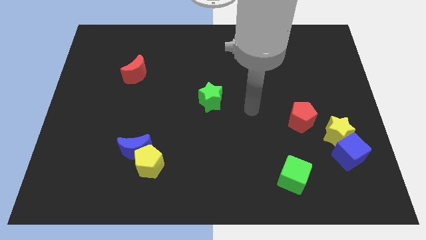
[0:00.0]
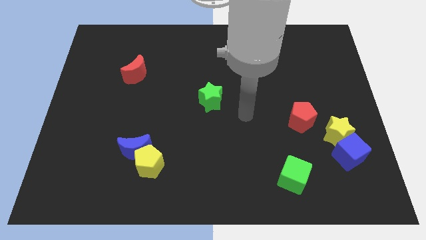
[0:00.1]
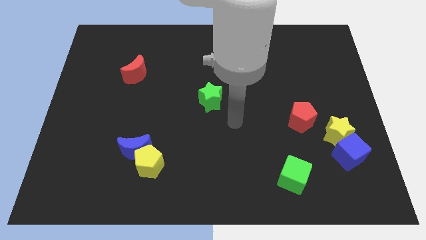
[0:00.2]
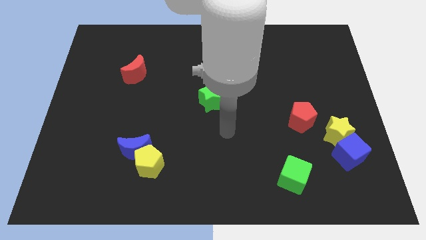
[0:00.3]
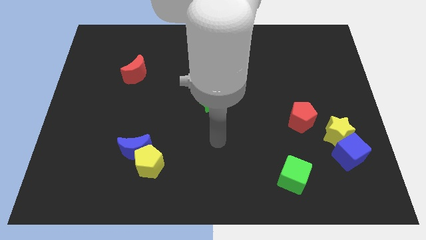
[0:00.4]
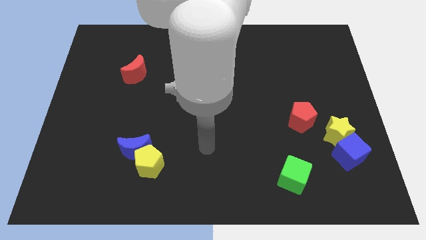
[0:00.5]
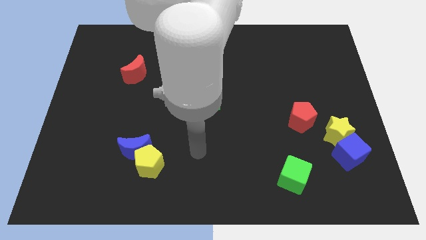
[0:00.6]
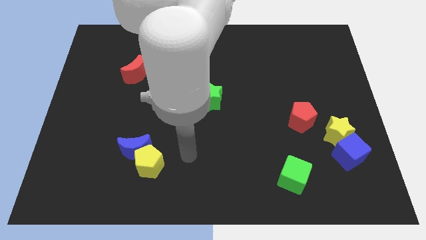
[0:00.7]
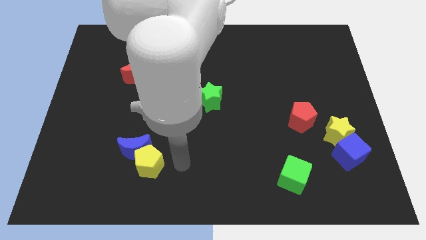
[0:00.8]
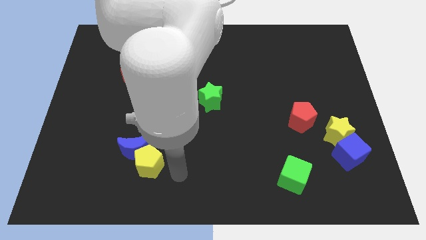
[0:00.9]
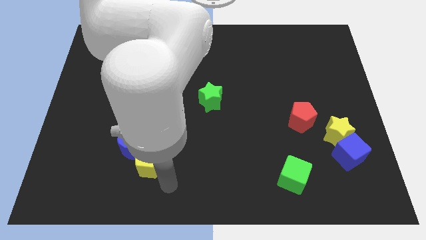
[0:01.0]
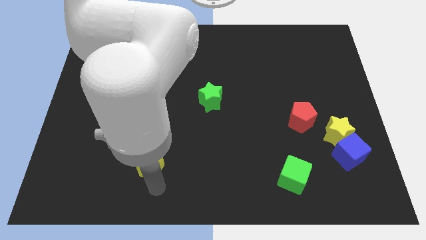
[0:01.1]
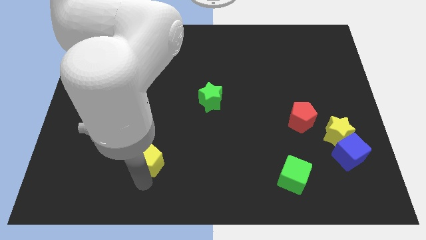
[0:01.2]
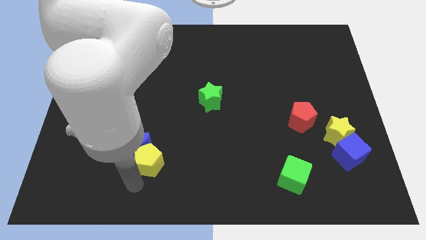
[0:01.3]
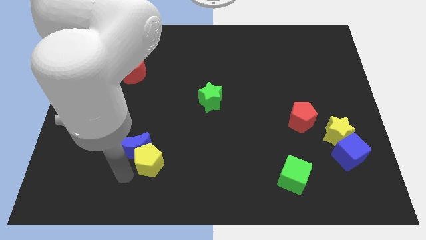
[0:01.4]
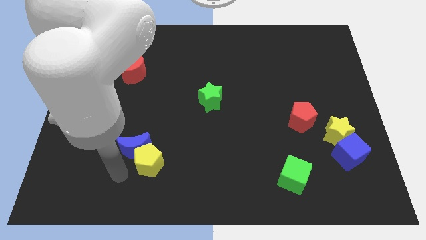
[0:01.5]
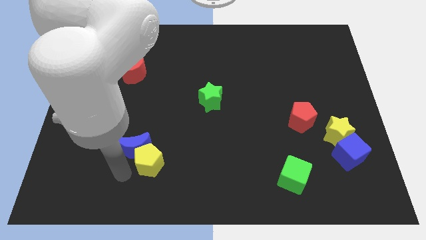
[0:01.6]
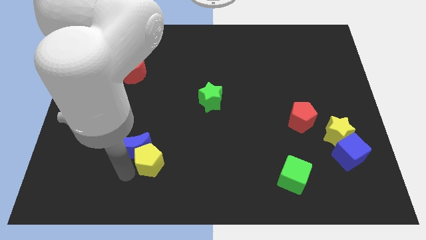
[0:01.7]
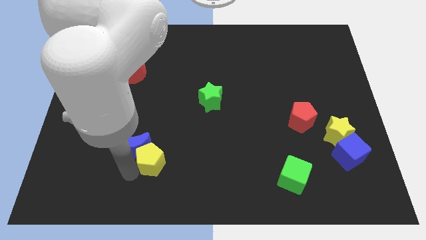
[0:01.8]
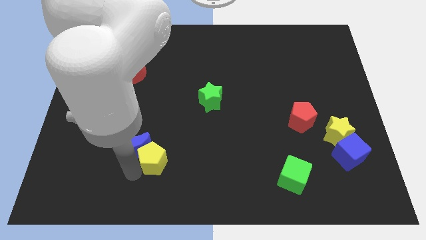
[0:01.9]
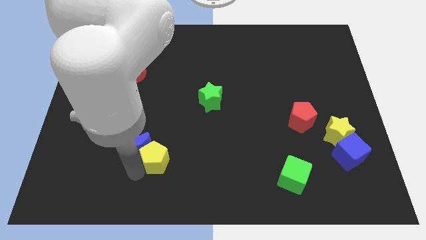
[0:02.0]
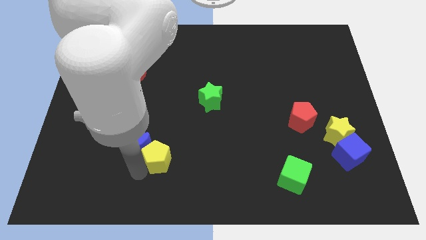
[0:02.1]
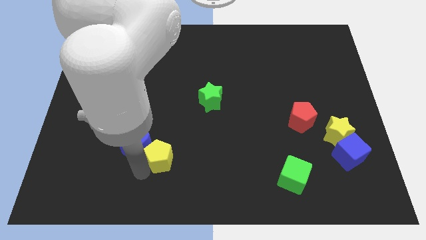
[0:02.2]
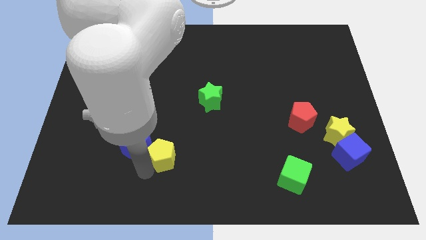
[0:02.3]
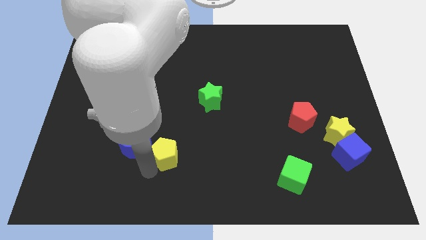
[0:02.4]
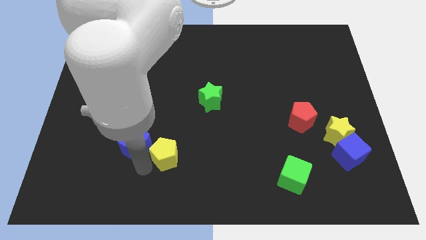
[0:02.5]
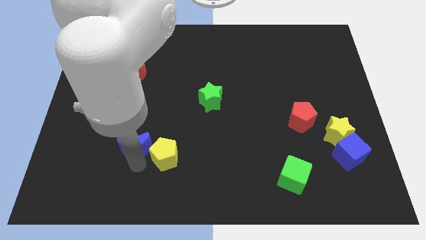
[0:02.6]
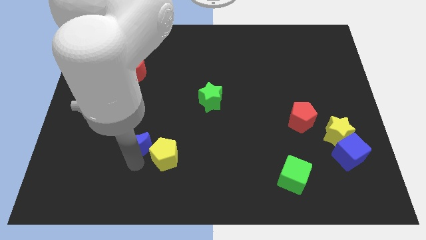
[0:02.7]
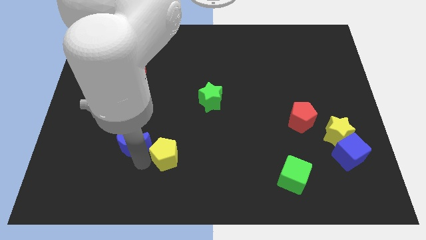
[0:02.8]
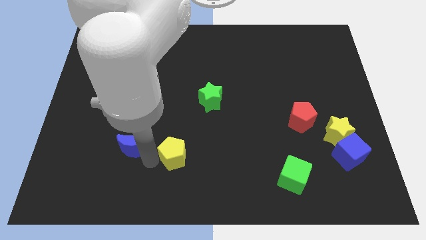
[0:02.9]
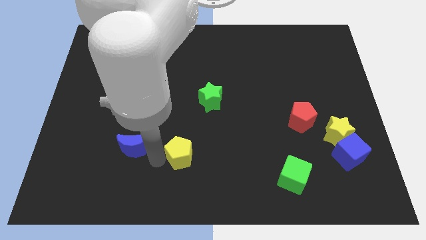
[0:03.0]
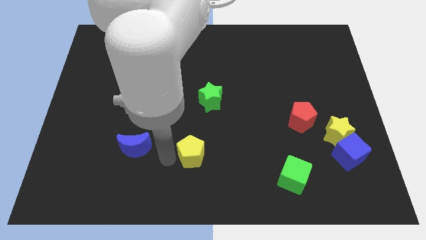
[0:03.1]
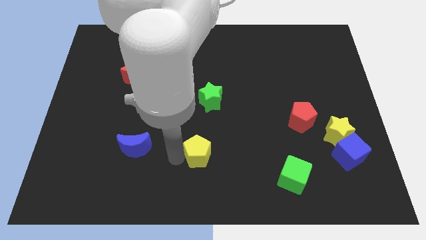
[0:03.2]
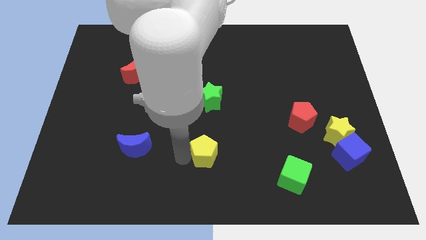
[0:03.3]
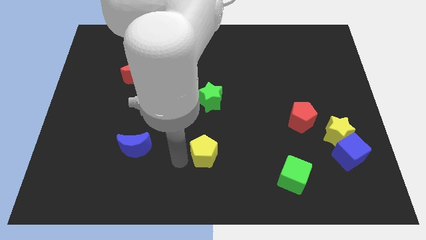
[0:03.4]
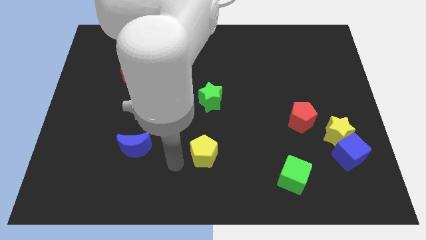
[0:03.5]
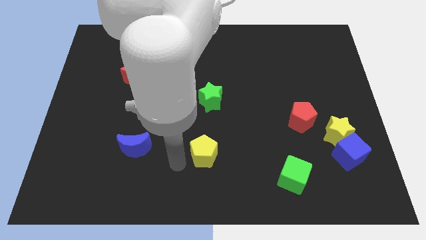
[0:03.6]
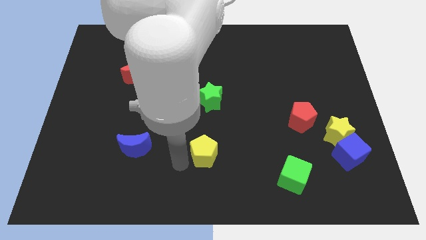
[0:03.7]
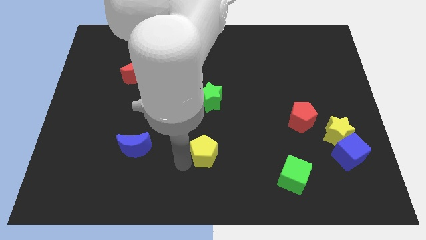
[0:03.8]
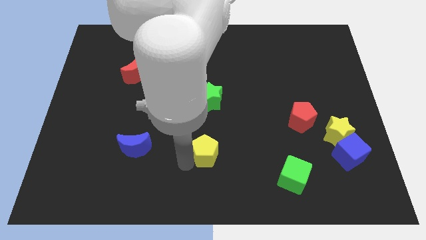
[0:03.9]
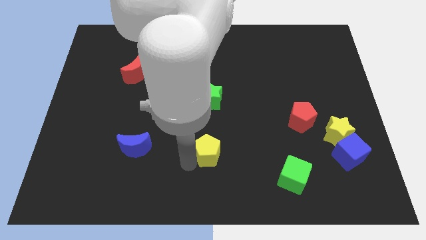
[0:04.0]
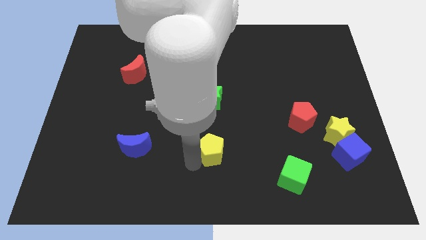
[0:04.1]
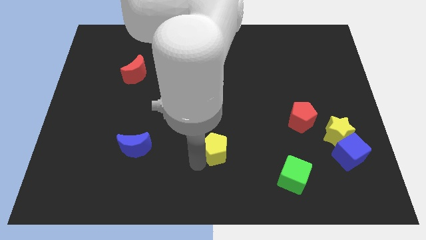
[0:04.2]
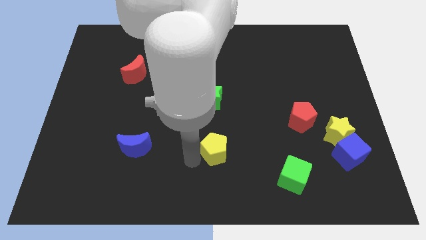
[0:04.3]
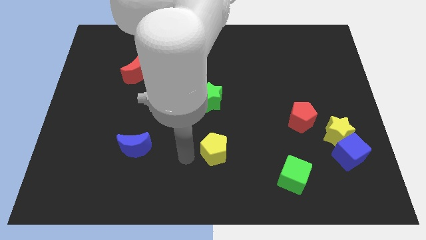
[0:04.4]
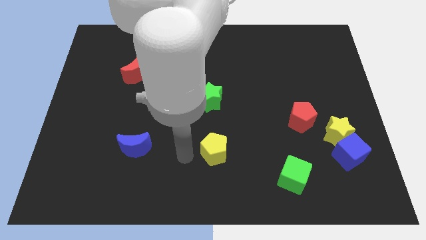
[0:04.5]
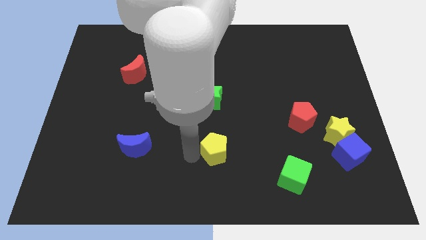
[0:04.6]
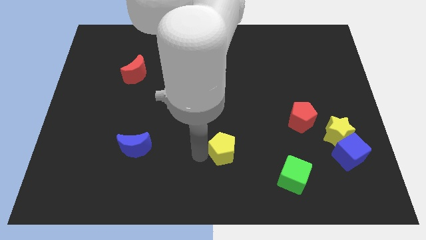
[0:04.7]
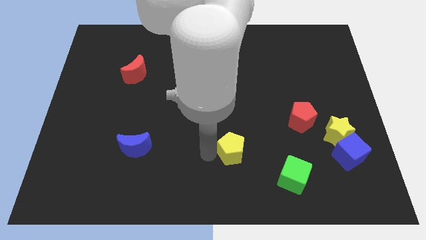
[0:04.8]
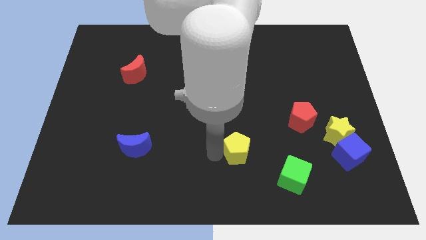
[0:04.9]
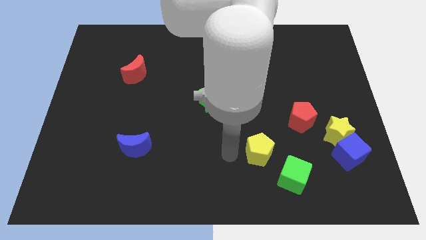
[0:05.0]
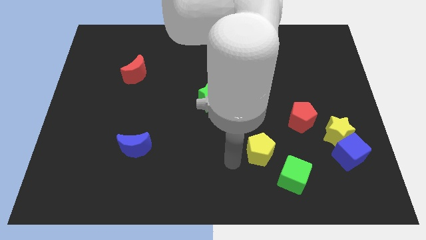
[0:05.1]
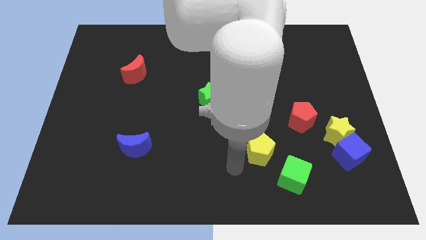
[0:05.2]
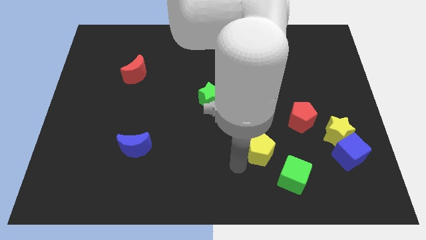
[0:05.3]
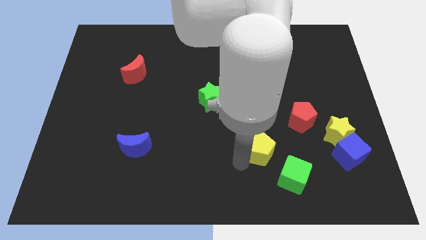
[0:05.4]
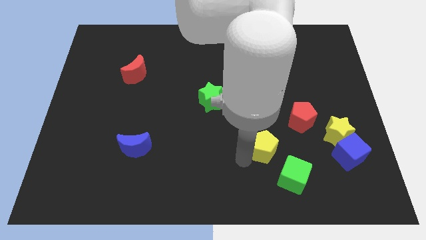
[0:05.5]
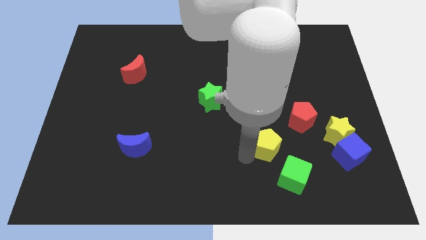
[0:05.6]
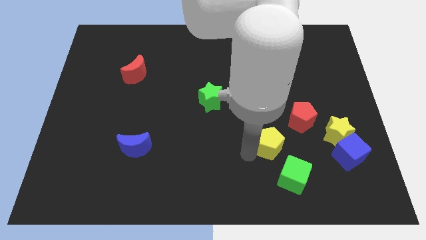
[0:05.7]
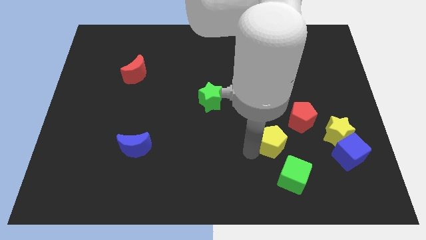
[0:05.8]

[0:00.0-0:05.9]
move the yellow pentagon to the left side of the yellow star

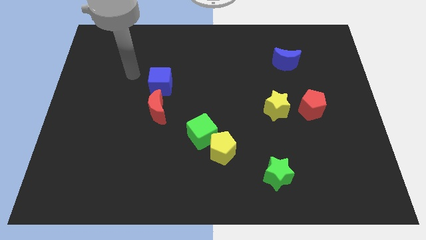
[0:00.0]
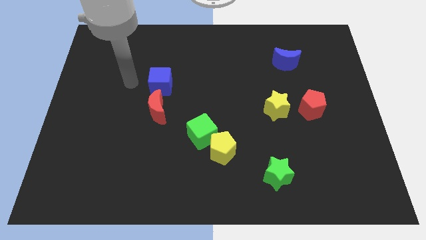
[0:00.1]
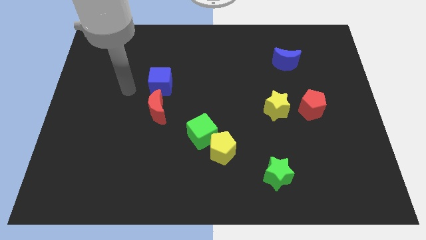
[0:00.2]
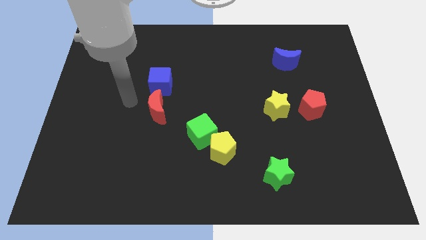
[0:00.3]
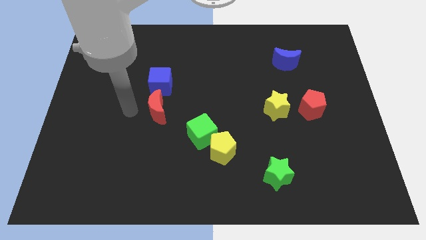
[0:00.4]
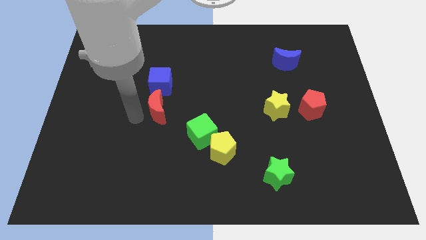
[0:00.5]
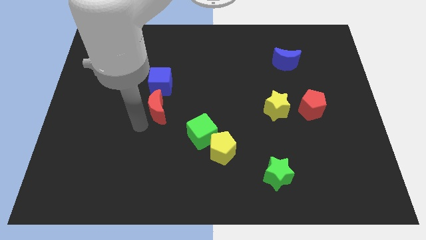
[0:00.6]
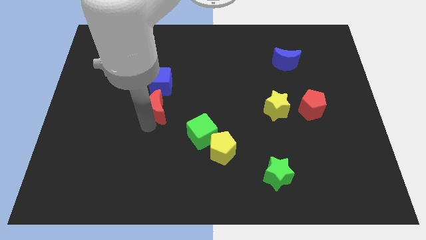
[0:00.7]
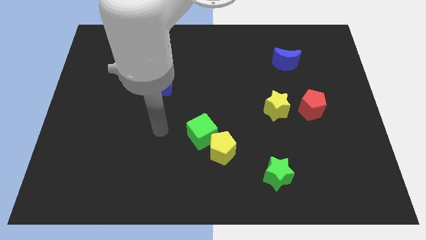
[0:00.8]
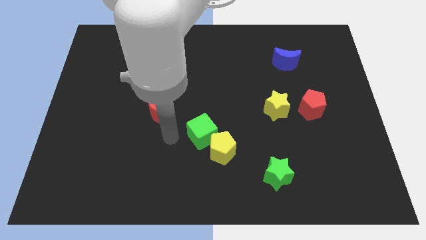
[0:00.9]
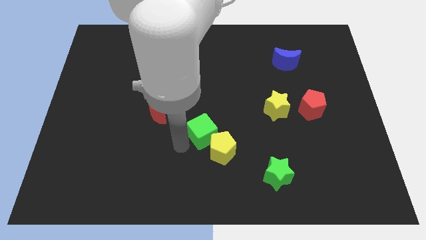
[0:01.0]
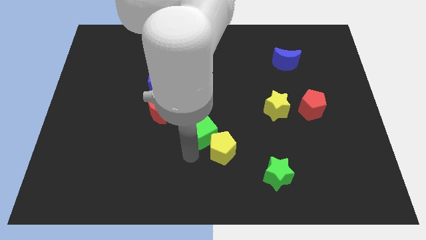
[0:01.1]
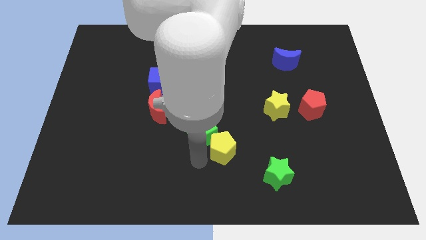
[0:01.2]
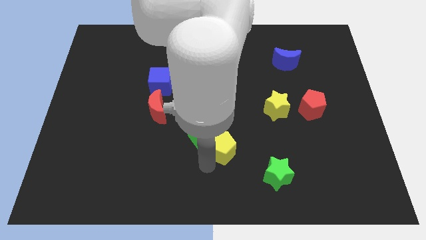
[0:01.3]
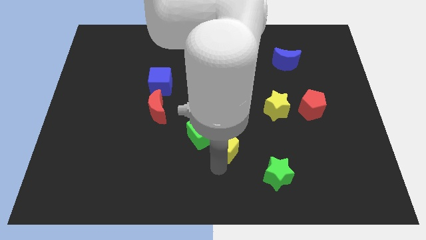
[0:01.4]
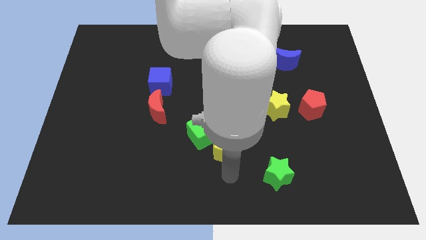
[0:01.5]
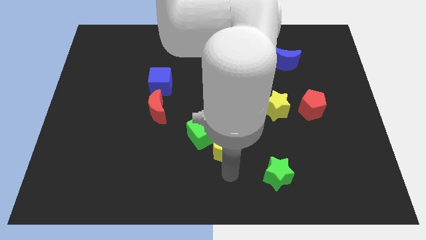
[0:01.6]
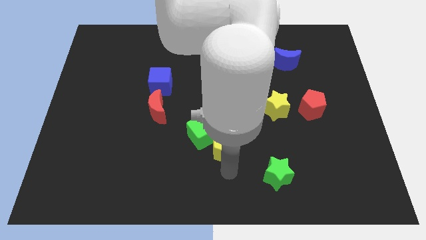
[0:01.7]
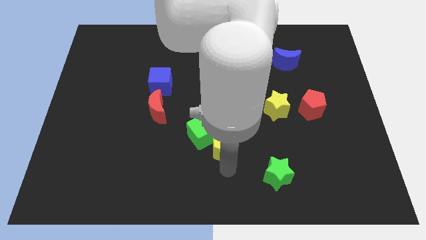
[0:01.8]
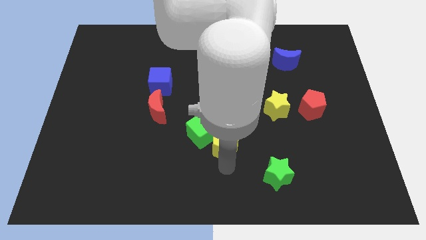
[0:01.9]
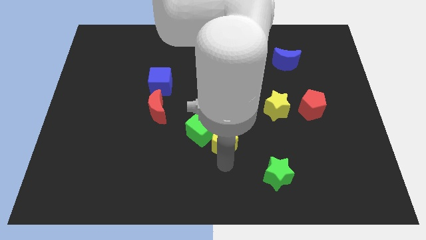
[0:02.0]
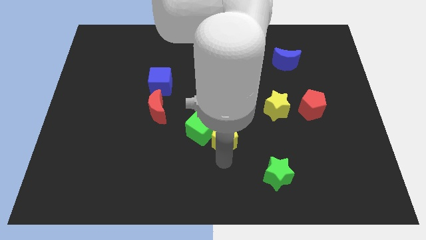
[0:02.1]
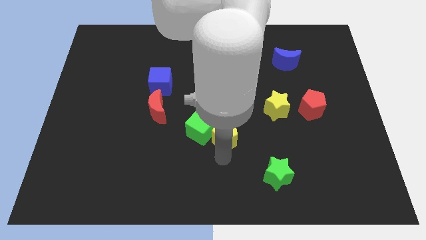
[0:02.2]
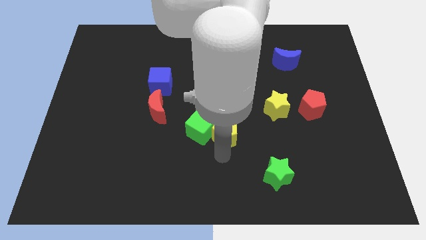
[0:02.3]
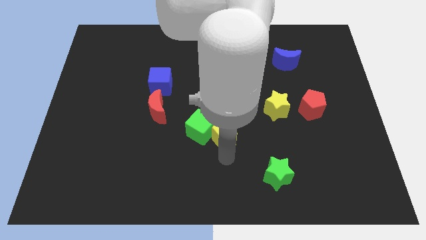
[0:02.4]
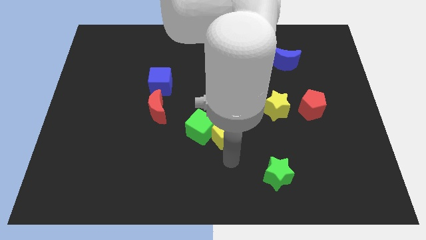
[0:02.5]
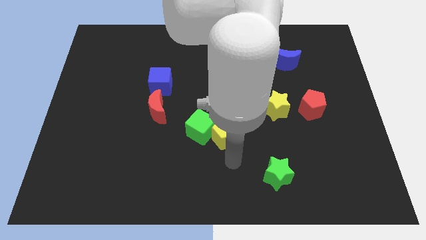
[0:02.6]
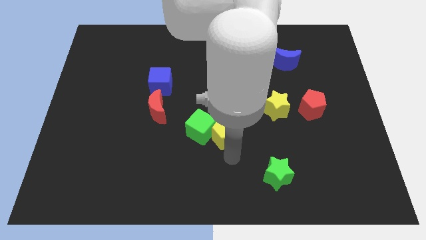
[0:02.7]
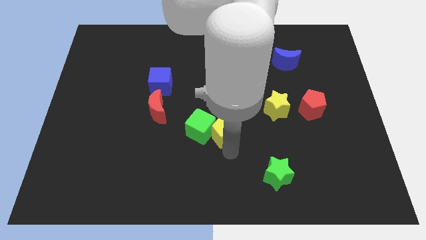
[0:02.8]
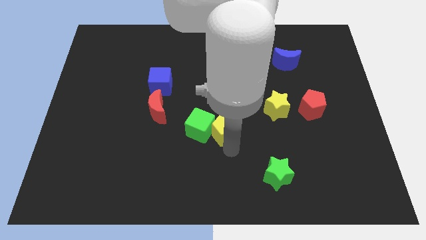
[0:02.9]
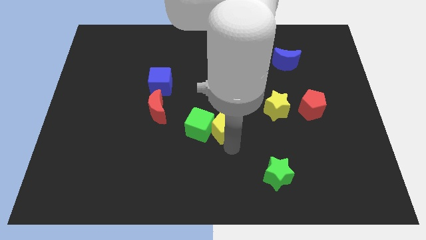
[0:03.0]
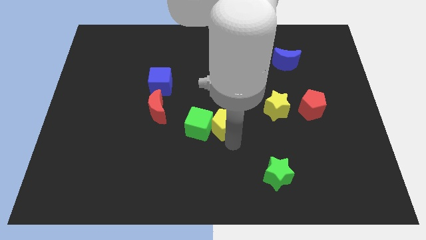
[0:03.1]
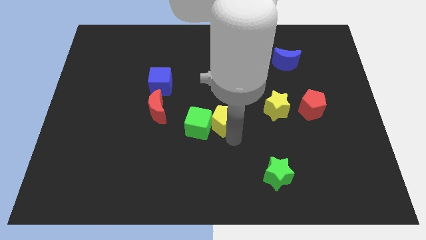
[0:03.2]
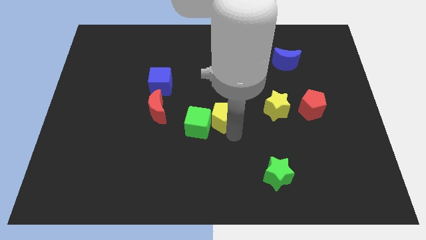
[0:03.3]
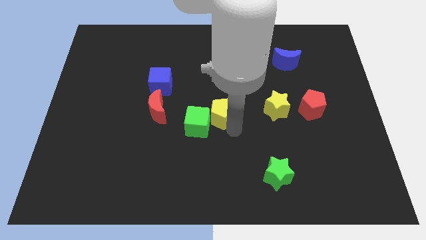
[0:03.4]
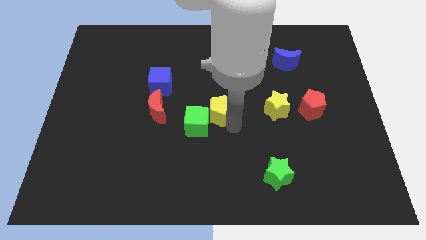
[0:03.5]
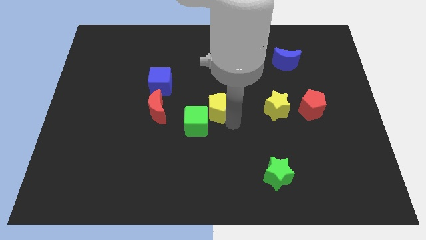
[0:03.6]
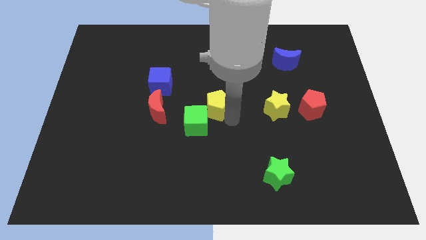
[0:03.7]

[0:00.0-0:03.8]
put the yellow pentagon to the top of the green cube
